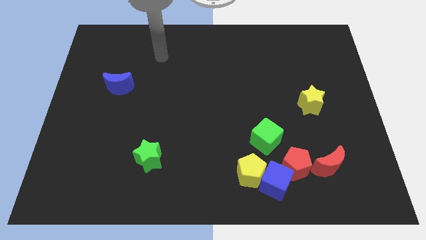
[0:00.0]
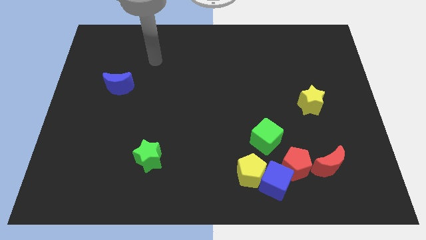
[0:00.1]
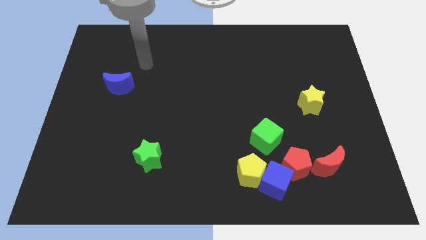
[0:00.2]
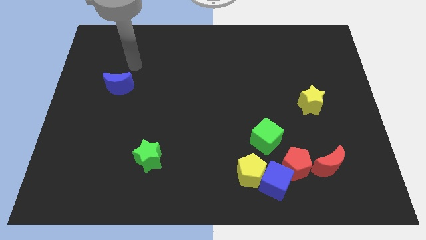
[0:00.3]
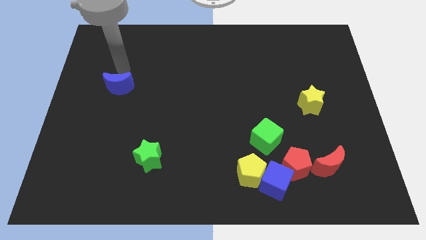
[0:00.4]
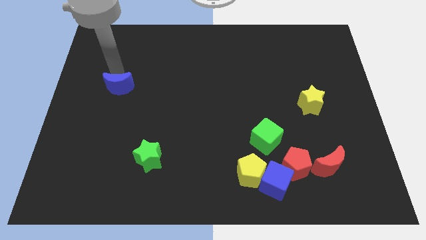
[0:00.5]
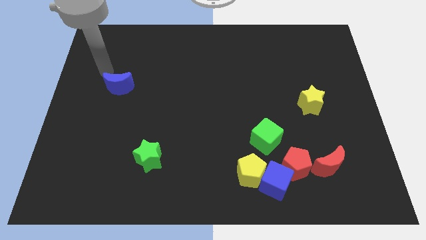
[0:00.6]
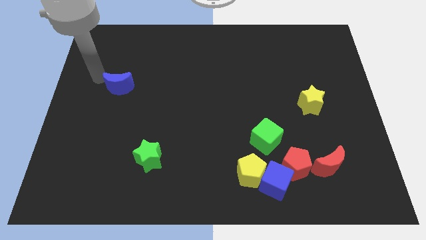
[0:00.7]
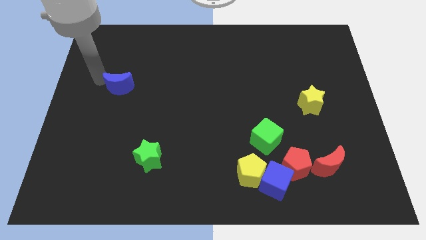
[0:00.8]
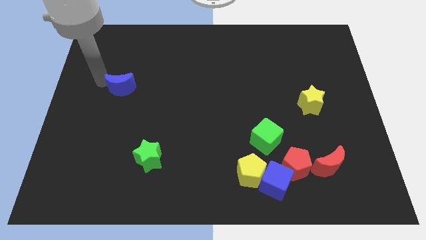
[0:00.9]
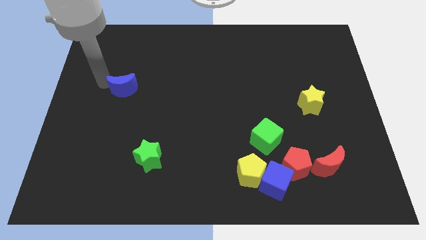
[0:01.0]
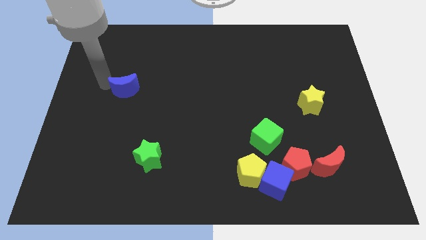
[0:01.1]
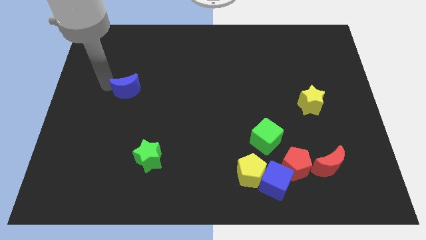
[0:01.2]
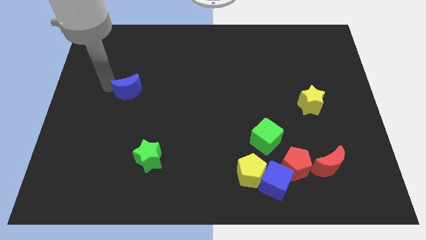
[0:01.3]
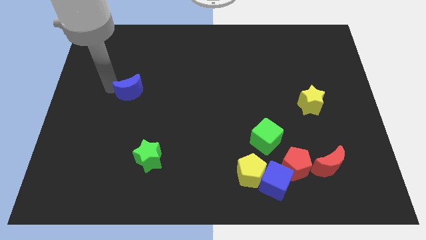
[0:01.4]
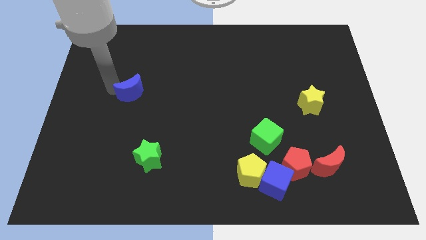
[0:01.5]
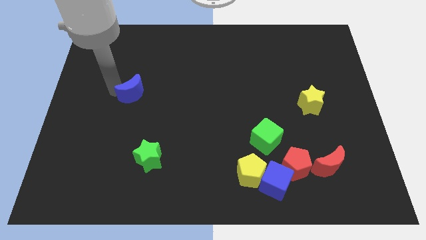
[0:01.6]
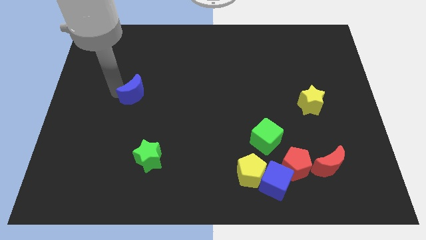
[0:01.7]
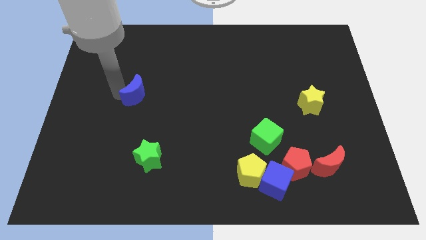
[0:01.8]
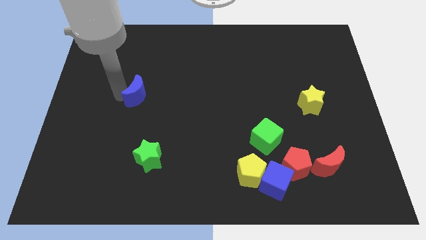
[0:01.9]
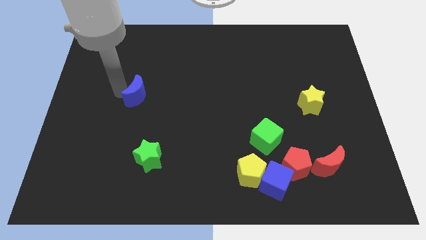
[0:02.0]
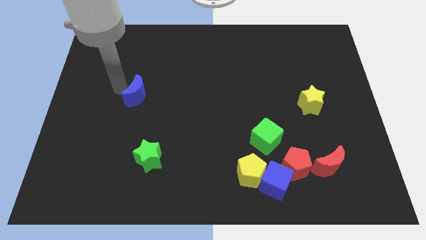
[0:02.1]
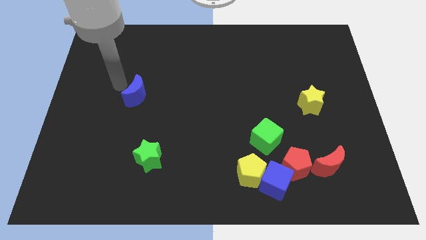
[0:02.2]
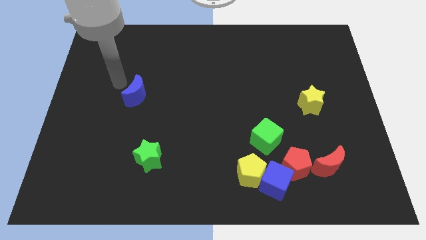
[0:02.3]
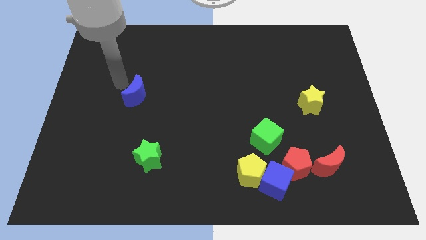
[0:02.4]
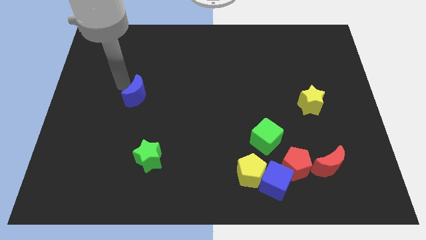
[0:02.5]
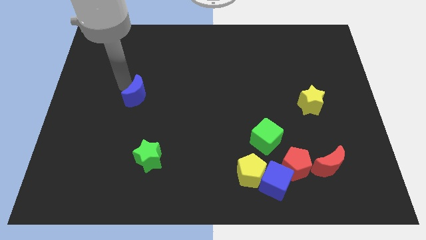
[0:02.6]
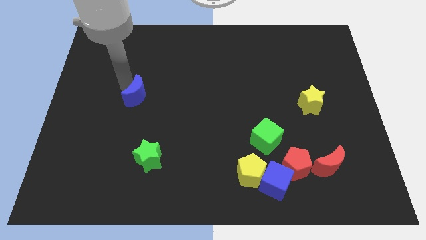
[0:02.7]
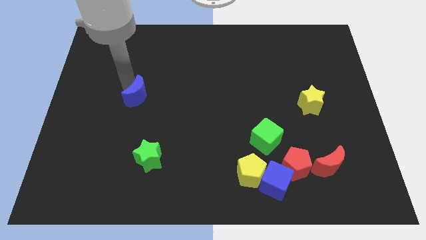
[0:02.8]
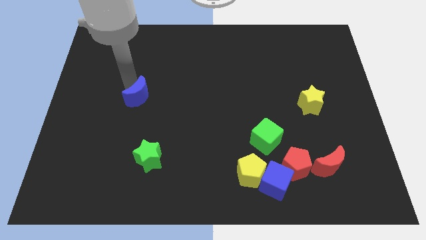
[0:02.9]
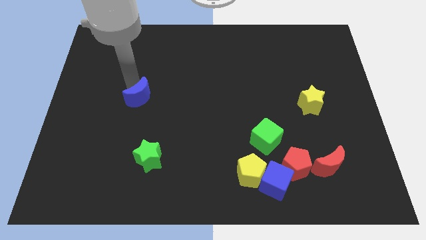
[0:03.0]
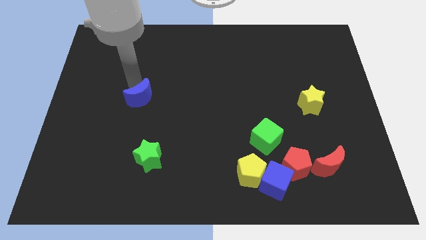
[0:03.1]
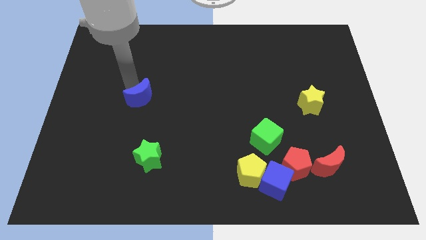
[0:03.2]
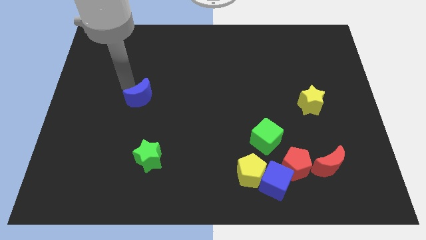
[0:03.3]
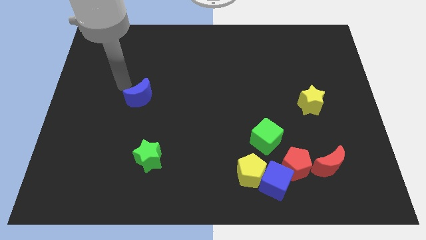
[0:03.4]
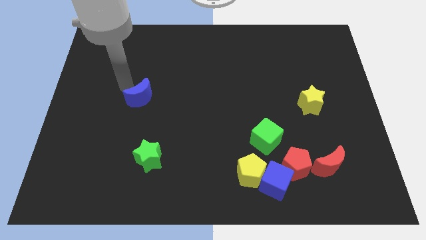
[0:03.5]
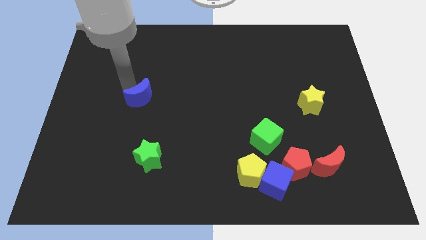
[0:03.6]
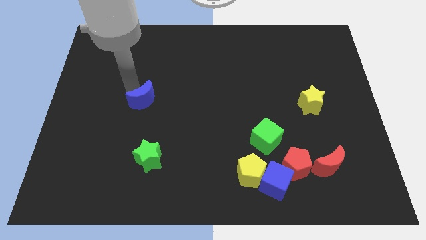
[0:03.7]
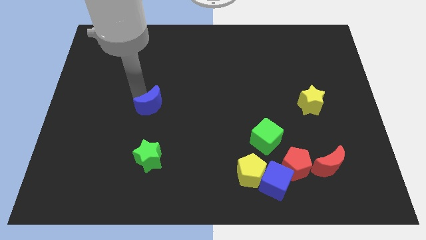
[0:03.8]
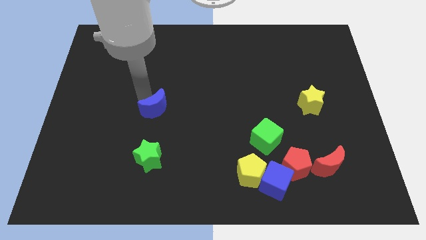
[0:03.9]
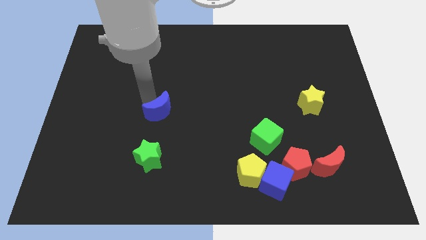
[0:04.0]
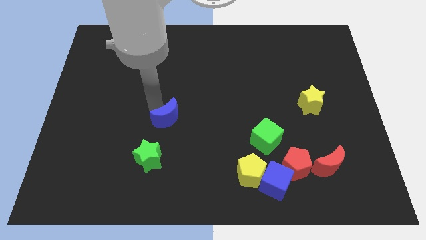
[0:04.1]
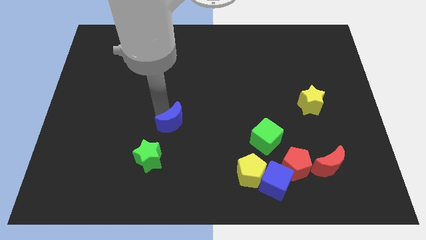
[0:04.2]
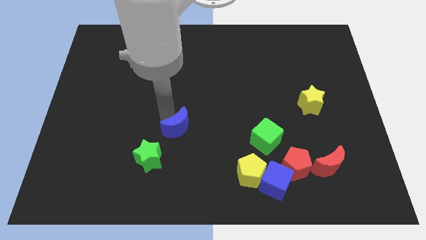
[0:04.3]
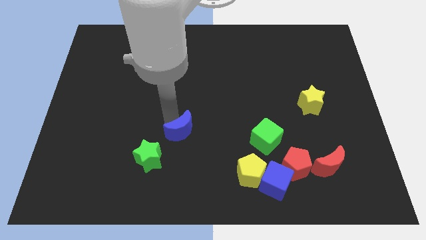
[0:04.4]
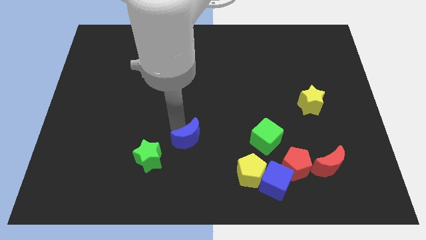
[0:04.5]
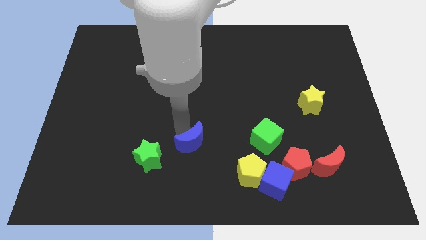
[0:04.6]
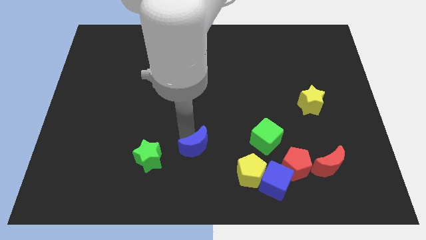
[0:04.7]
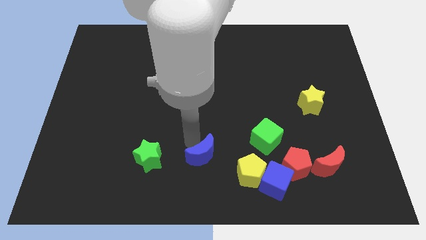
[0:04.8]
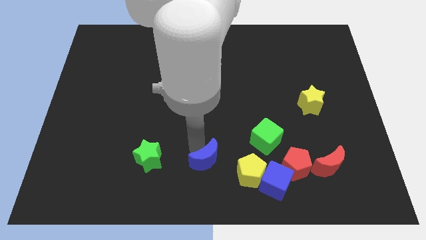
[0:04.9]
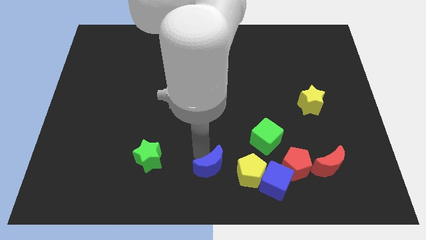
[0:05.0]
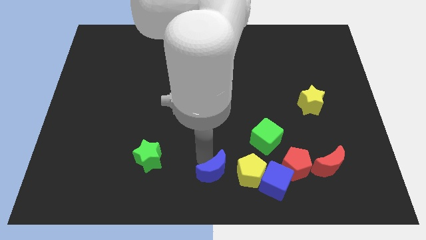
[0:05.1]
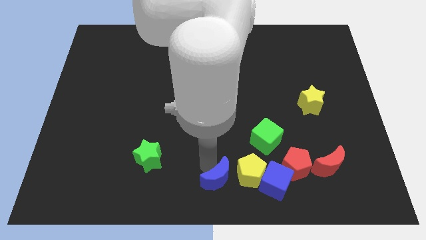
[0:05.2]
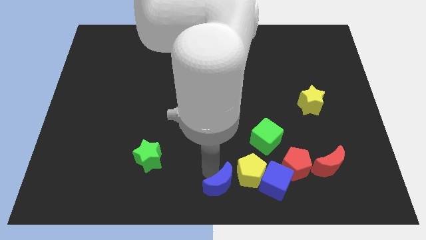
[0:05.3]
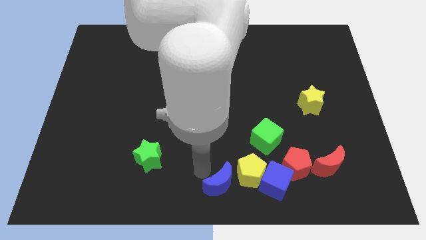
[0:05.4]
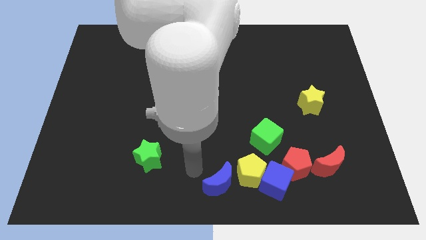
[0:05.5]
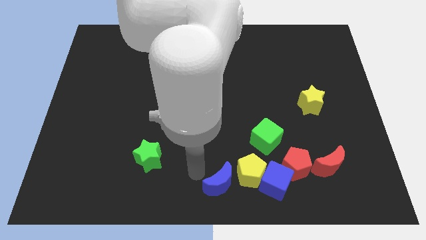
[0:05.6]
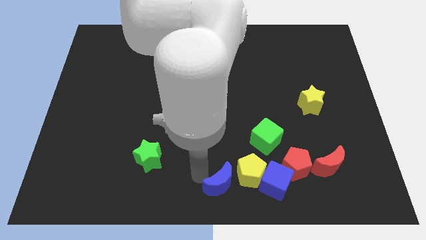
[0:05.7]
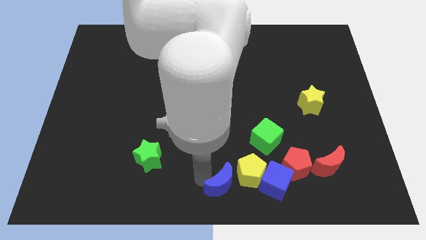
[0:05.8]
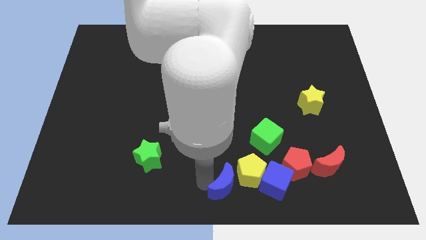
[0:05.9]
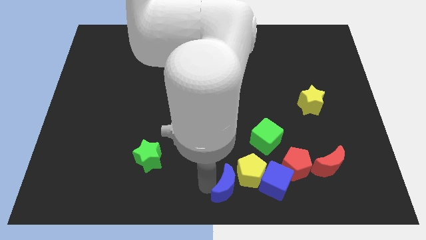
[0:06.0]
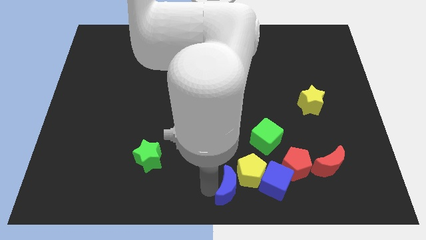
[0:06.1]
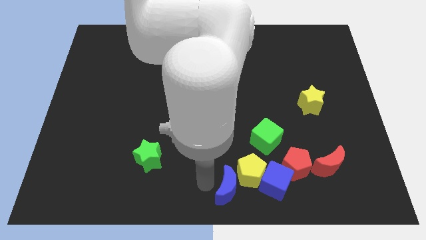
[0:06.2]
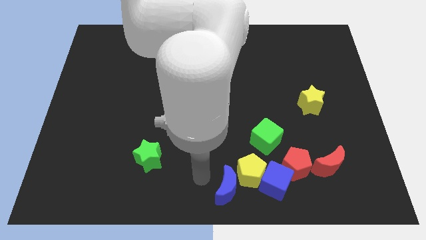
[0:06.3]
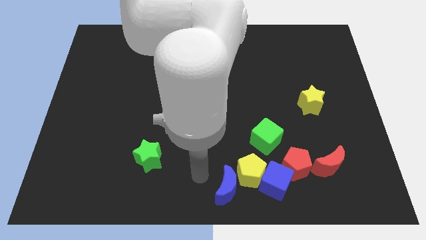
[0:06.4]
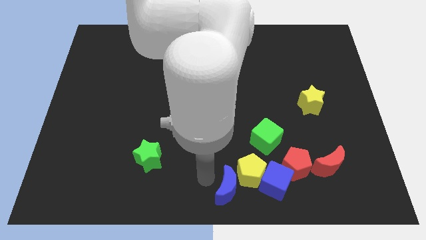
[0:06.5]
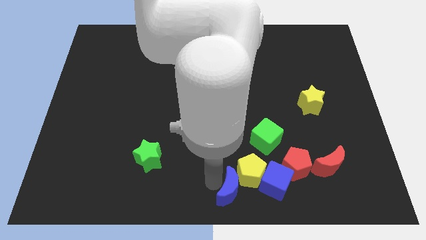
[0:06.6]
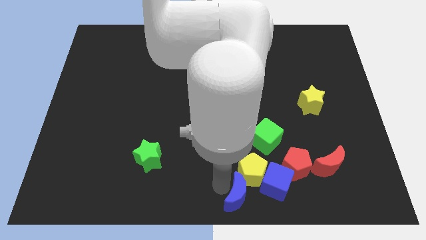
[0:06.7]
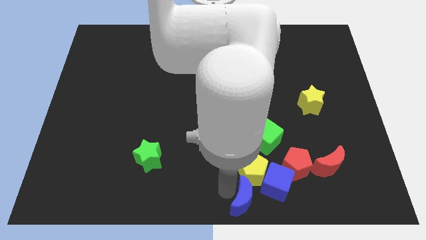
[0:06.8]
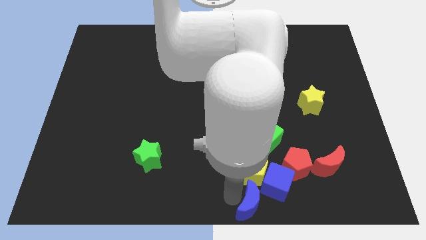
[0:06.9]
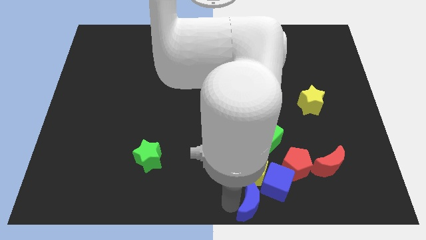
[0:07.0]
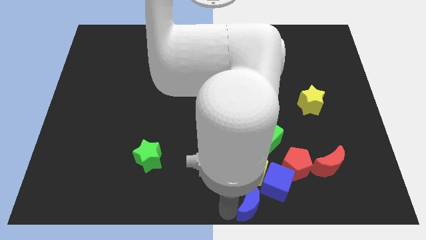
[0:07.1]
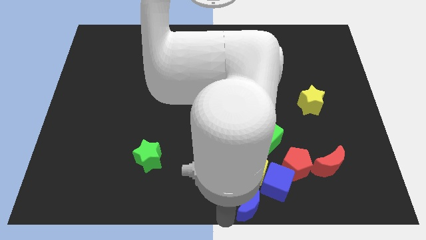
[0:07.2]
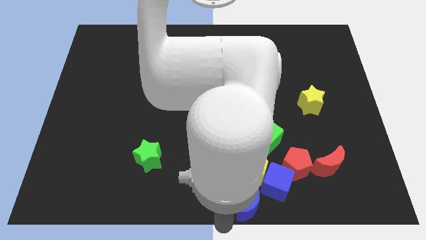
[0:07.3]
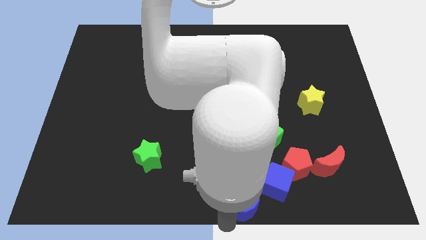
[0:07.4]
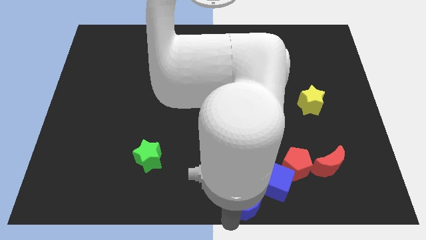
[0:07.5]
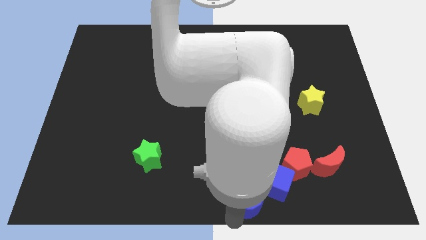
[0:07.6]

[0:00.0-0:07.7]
slide the blue moon to the blue cube
